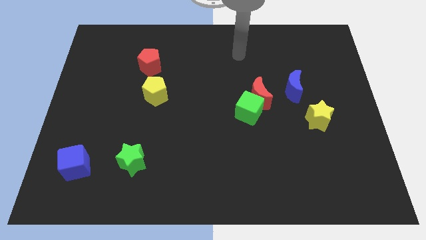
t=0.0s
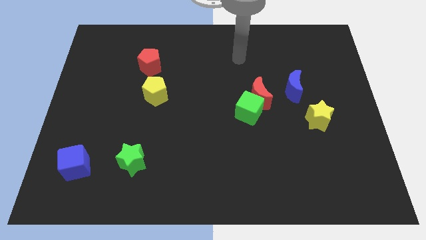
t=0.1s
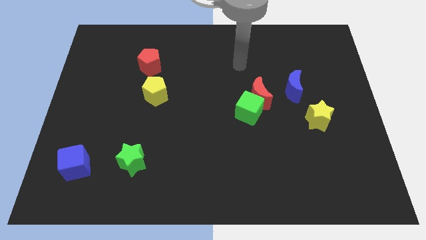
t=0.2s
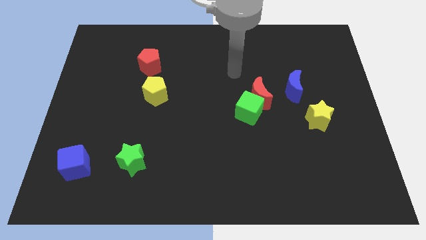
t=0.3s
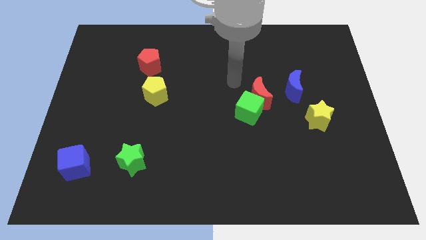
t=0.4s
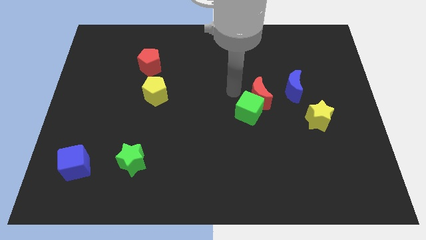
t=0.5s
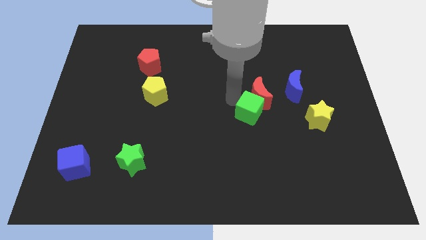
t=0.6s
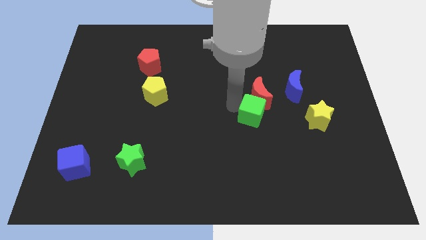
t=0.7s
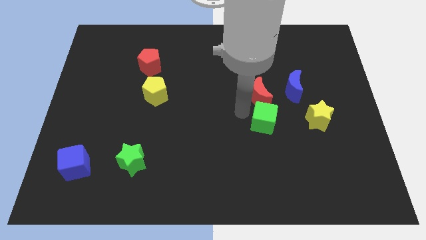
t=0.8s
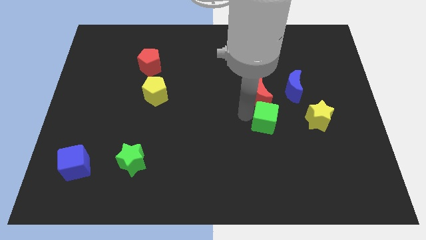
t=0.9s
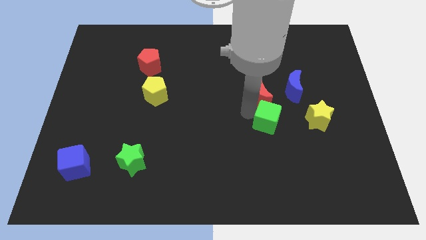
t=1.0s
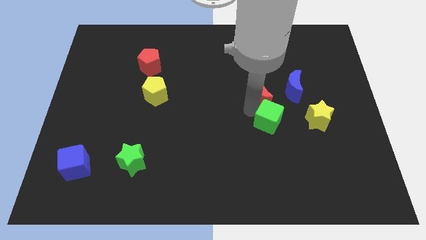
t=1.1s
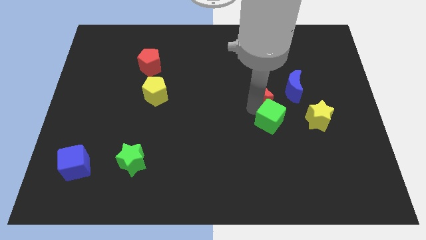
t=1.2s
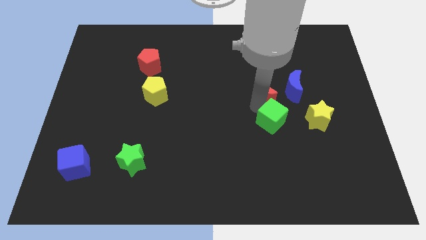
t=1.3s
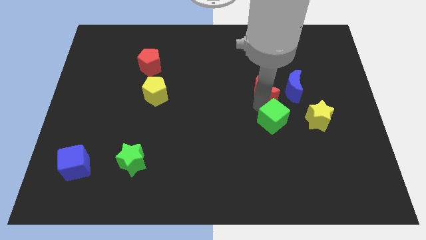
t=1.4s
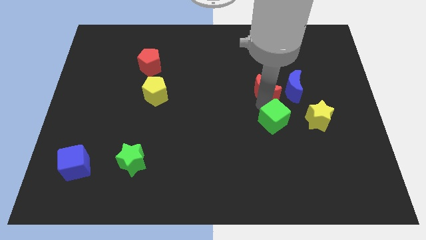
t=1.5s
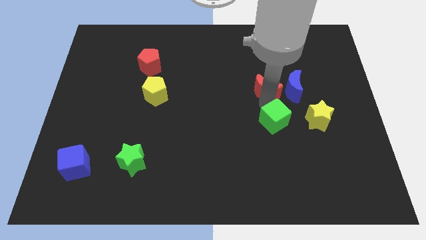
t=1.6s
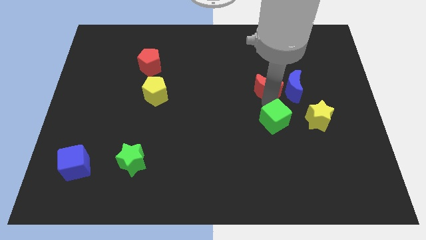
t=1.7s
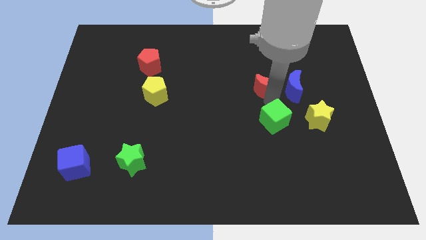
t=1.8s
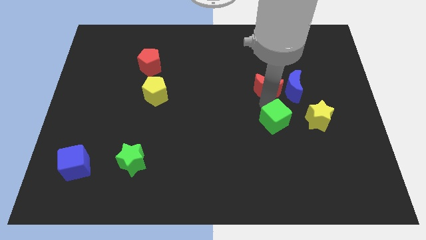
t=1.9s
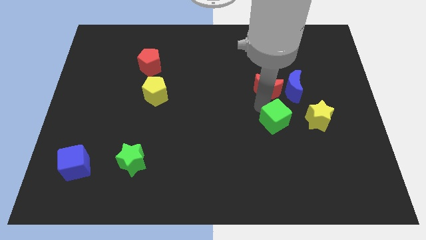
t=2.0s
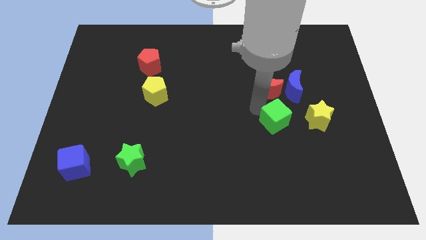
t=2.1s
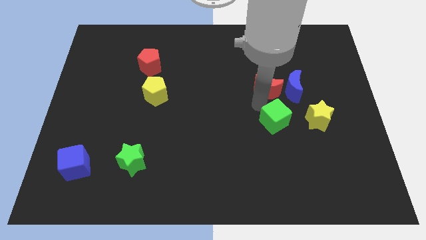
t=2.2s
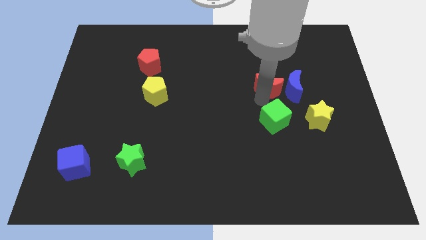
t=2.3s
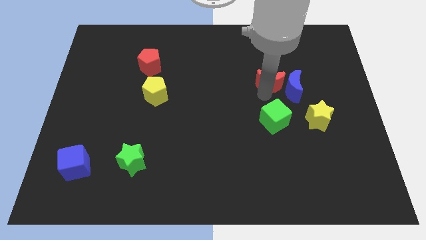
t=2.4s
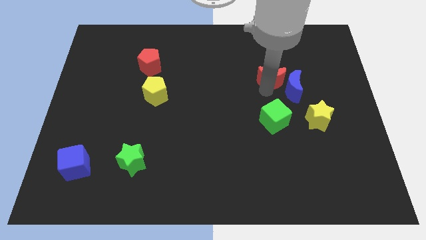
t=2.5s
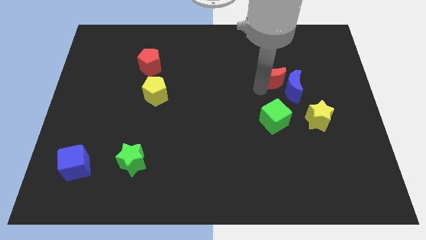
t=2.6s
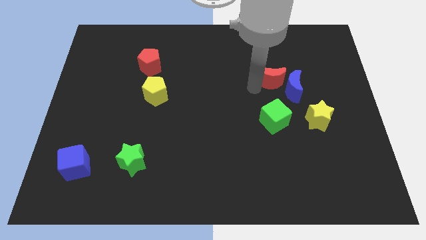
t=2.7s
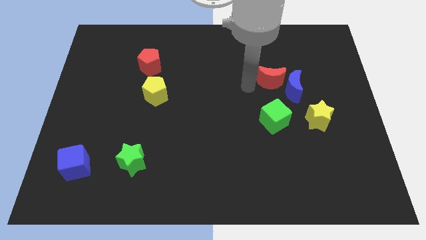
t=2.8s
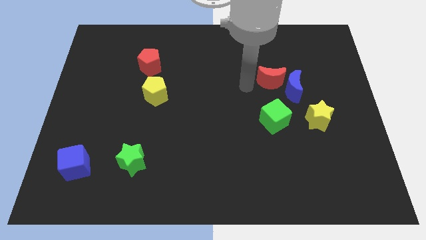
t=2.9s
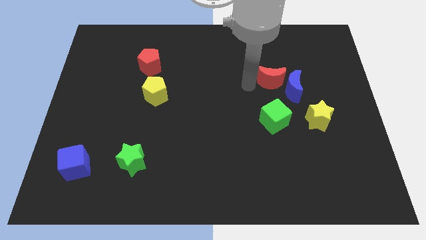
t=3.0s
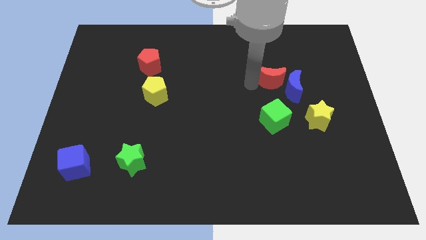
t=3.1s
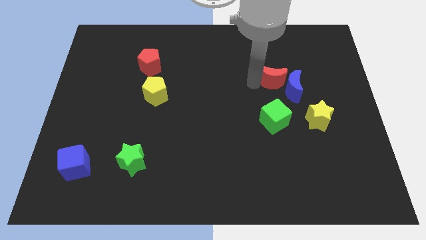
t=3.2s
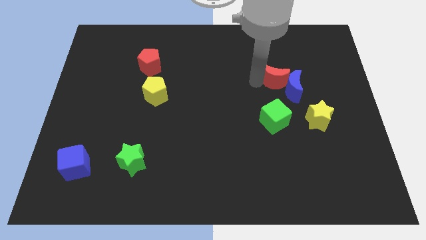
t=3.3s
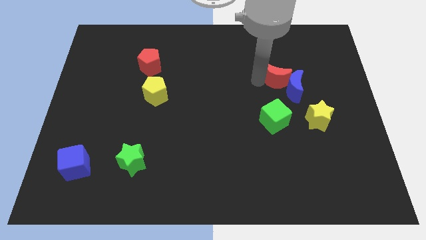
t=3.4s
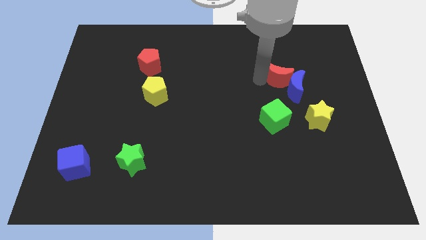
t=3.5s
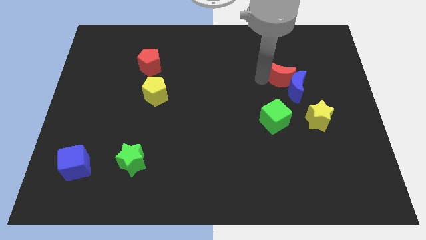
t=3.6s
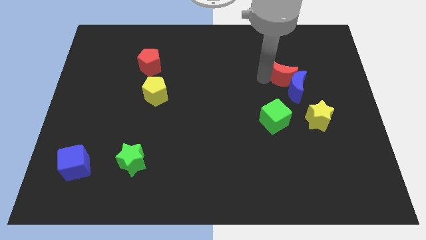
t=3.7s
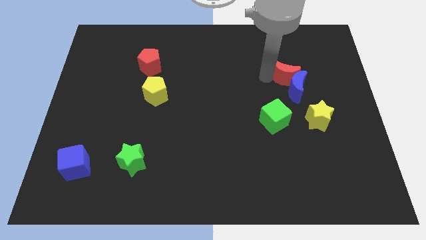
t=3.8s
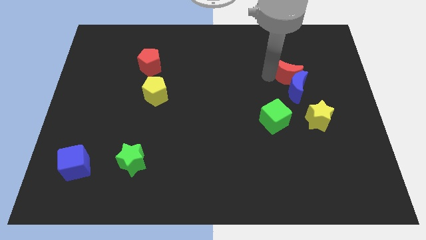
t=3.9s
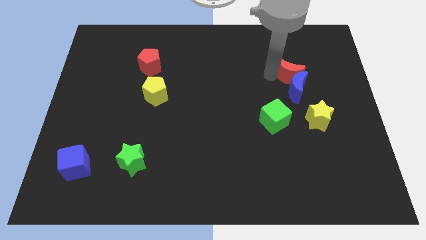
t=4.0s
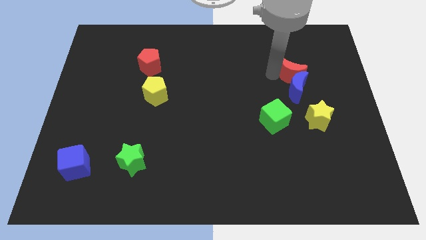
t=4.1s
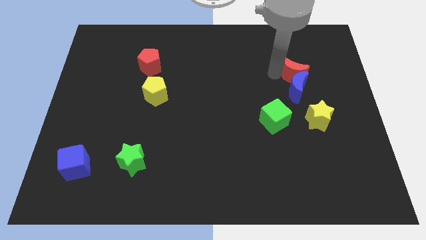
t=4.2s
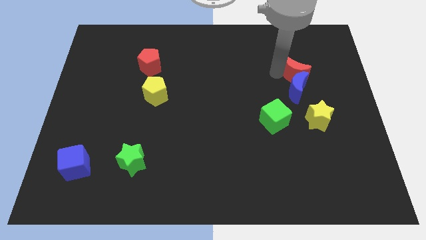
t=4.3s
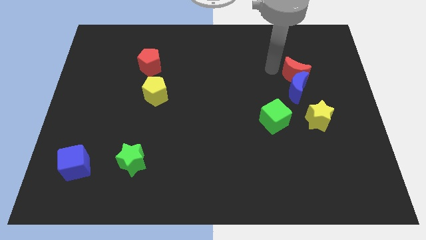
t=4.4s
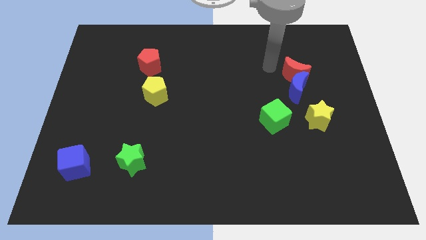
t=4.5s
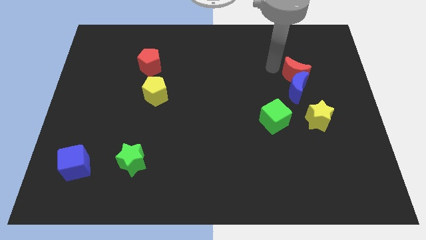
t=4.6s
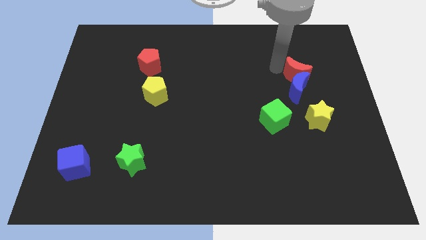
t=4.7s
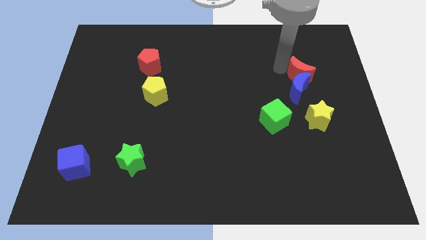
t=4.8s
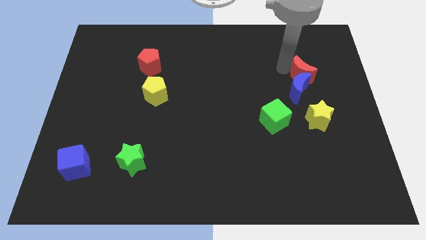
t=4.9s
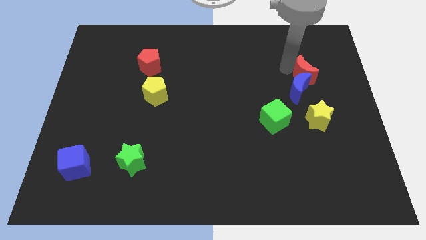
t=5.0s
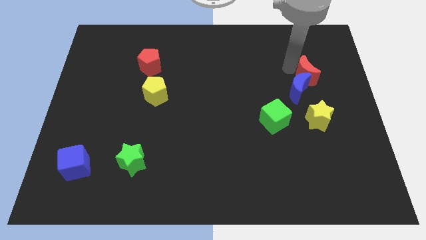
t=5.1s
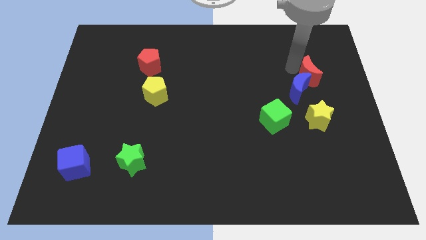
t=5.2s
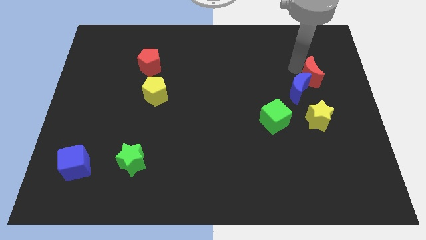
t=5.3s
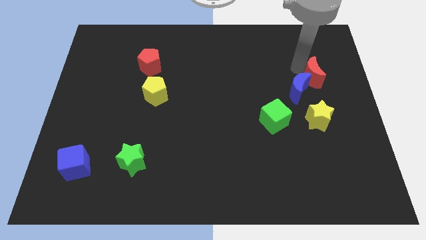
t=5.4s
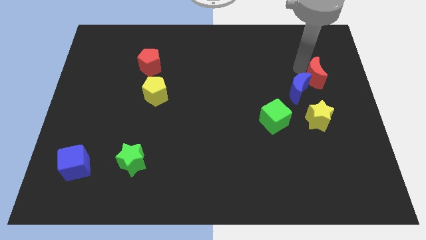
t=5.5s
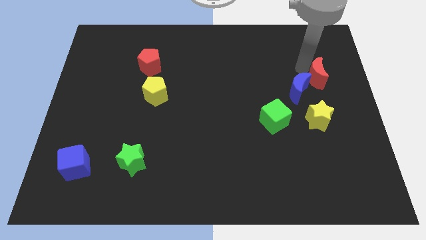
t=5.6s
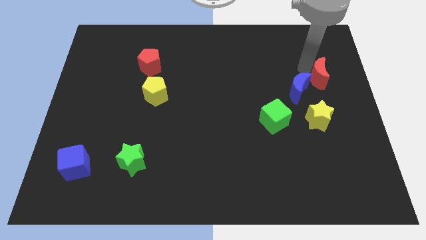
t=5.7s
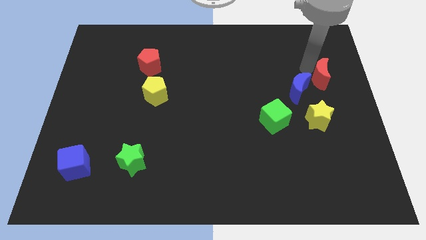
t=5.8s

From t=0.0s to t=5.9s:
push the red moon to the right side
